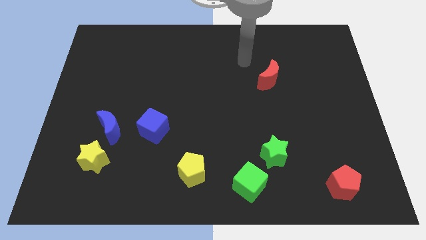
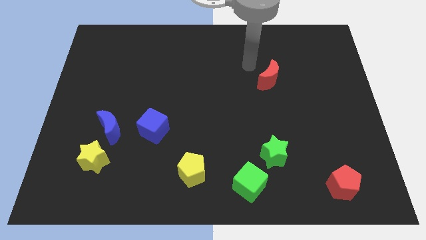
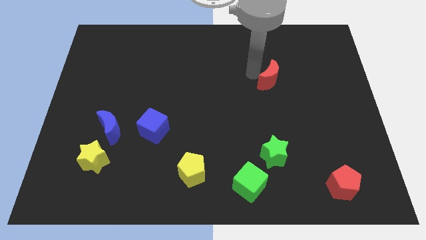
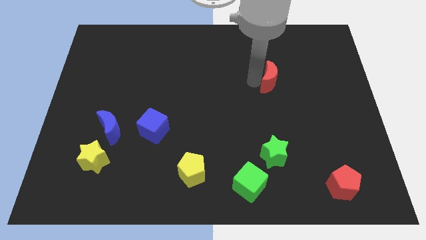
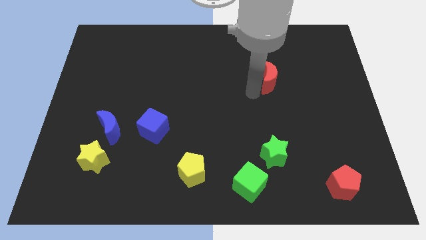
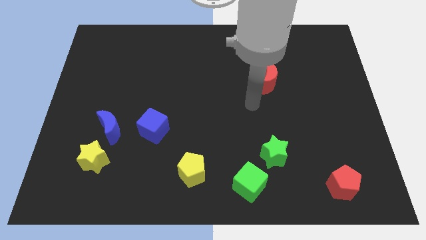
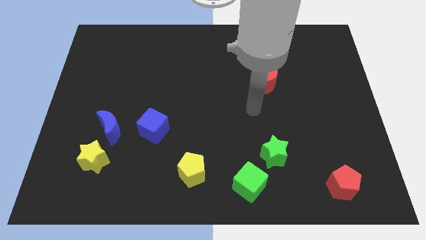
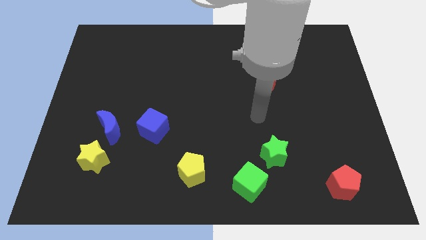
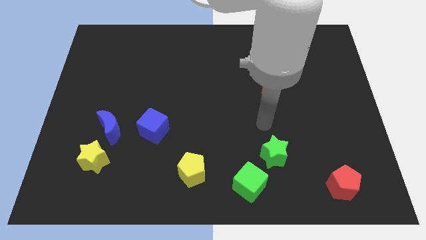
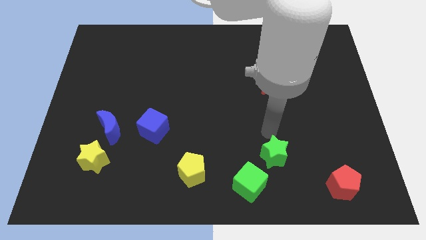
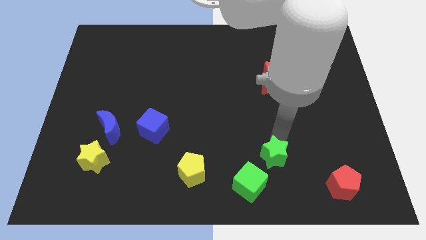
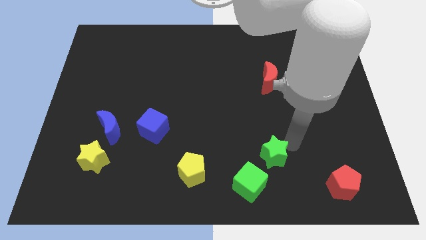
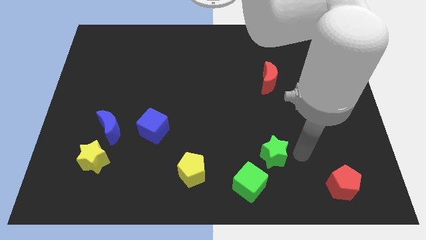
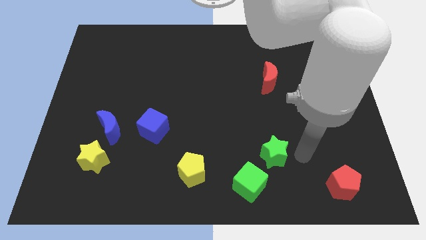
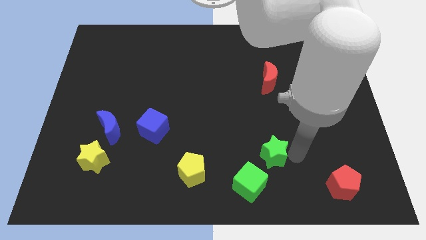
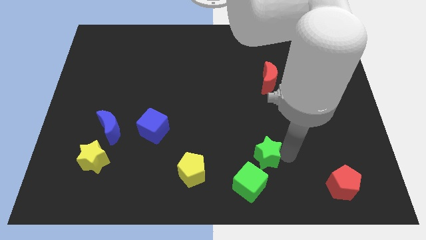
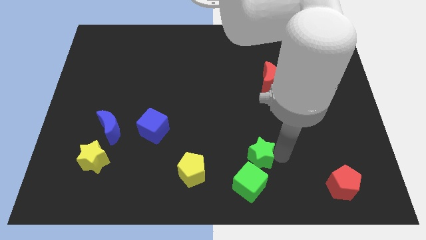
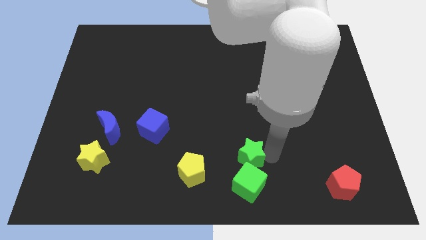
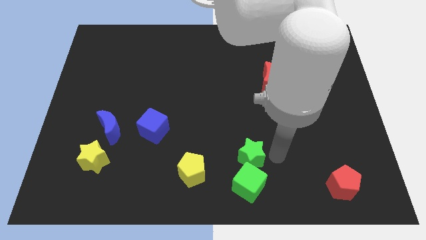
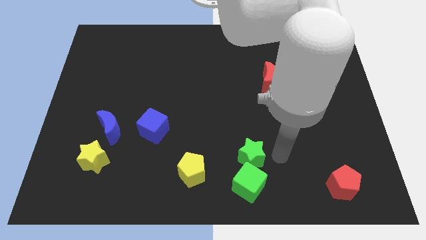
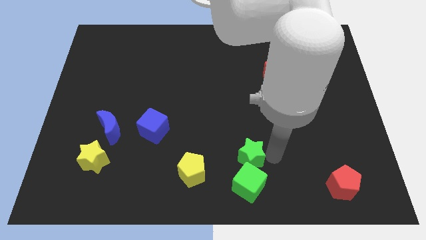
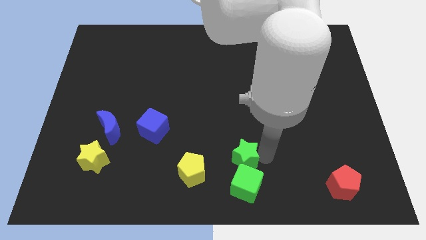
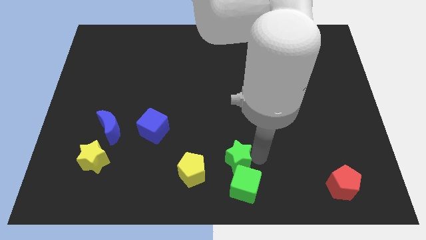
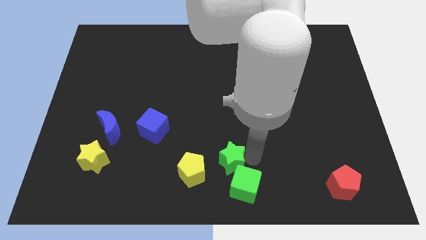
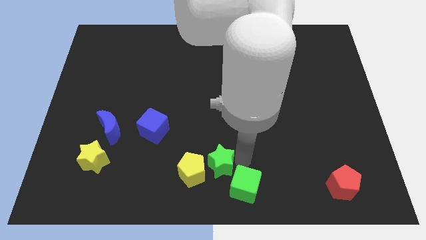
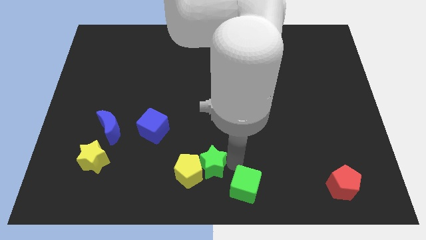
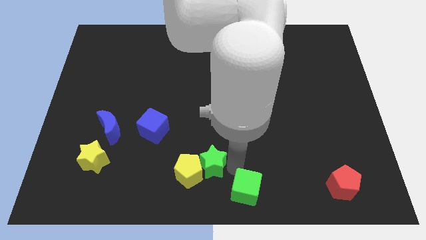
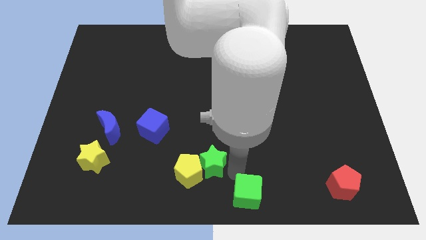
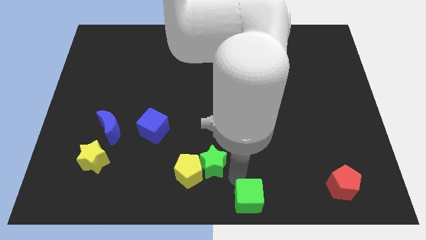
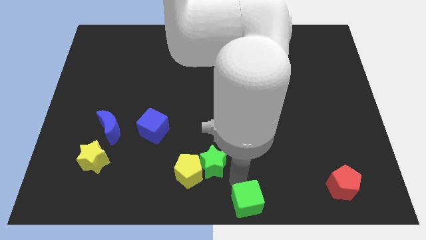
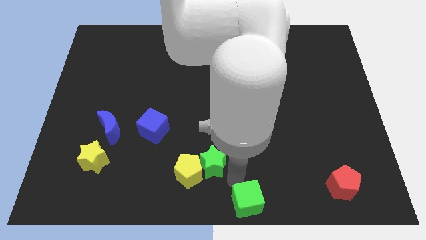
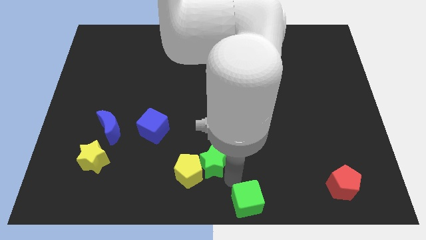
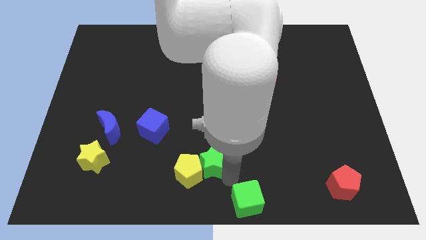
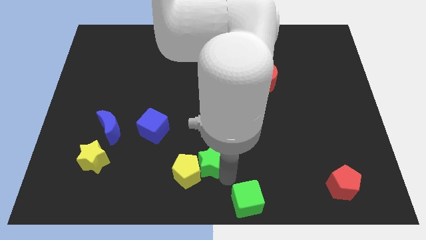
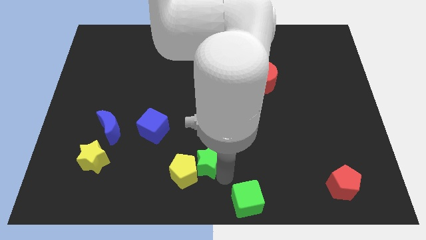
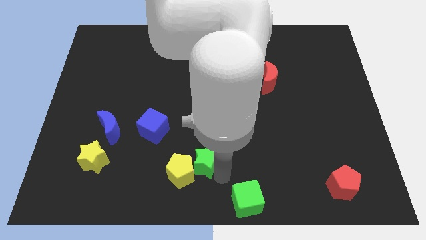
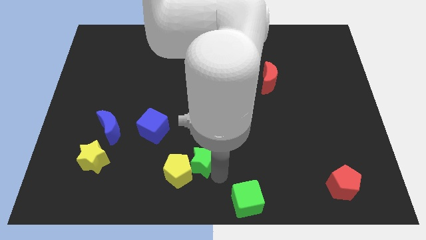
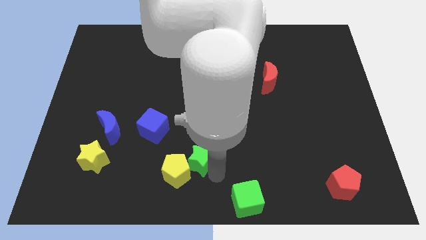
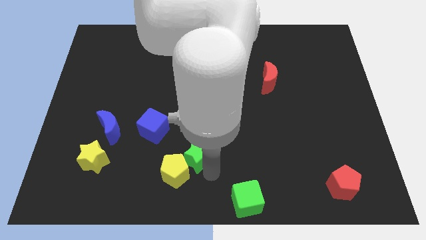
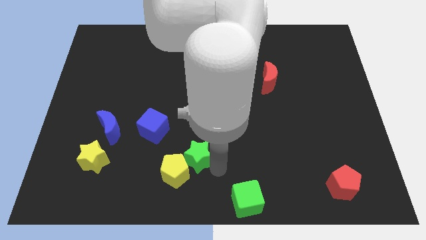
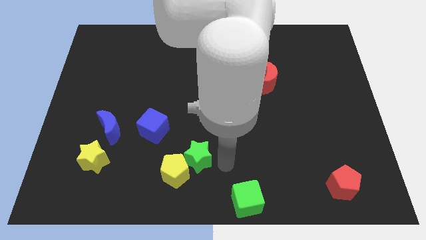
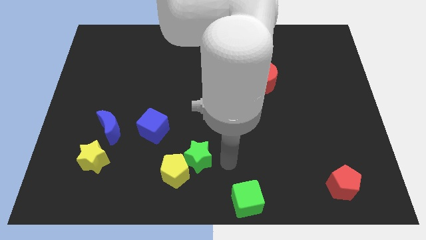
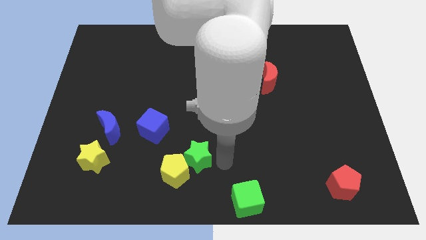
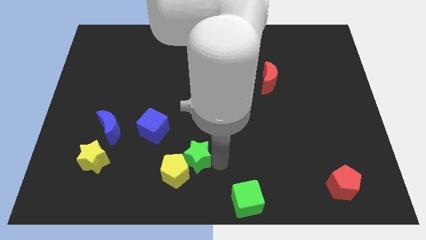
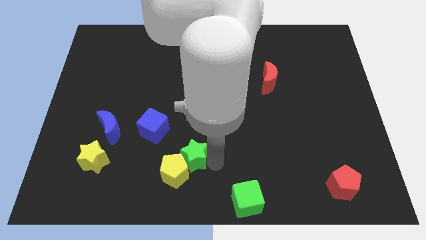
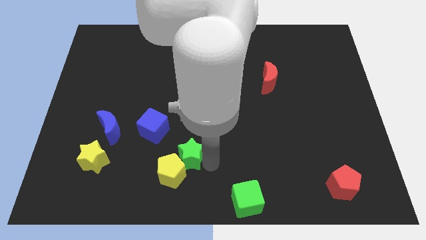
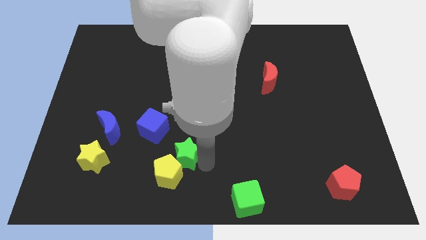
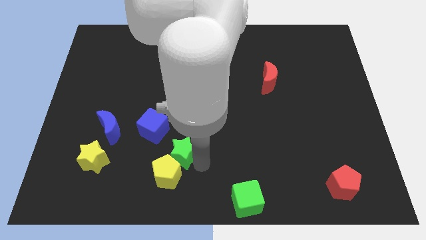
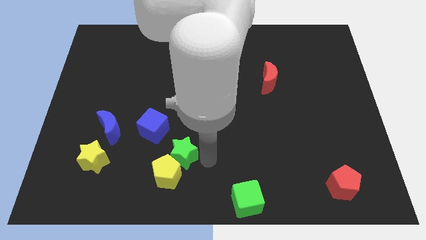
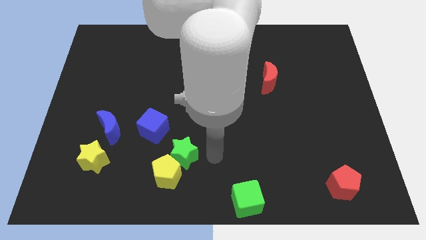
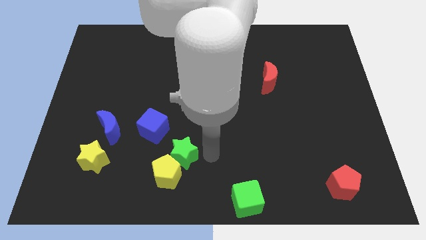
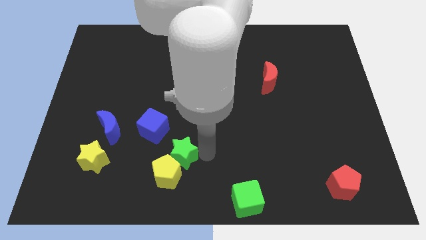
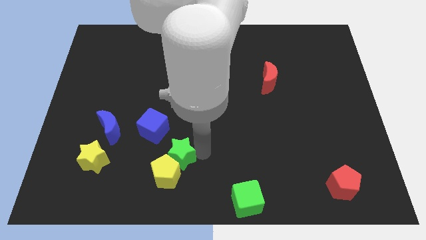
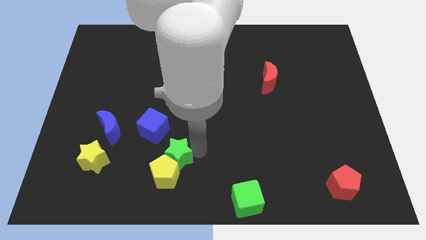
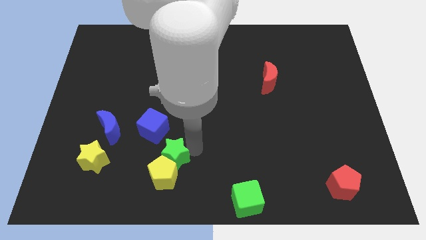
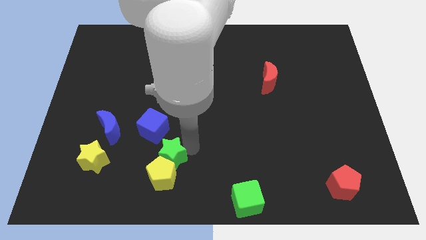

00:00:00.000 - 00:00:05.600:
slide the green star diagonally up and to the left of the yellow pentagon

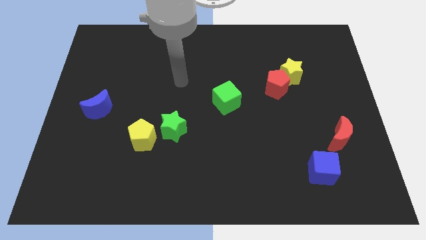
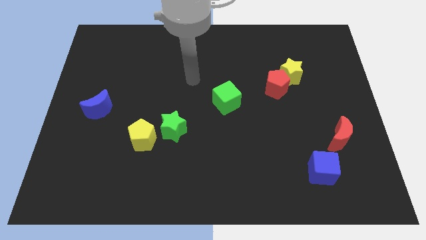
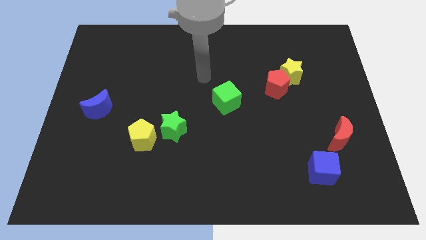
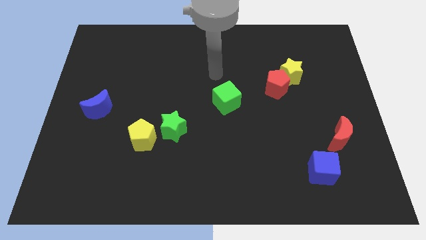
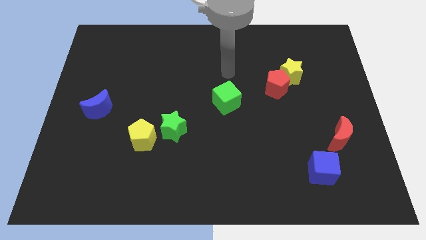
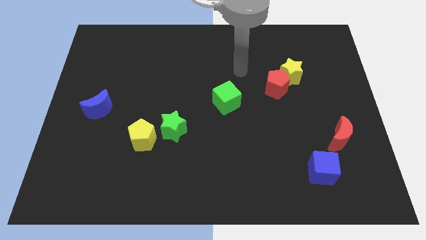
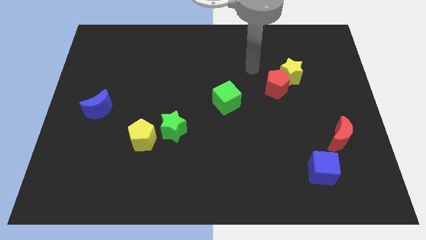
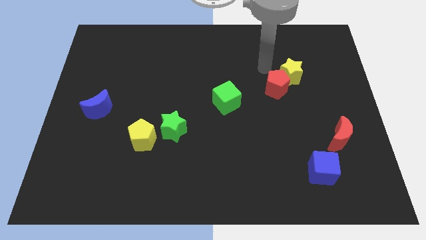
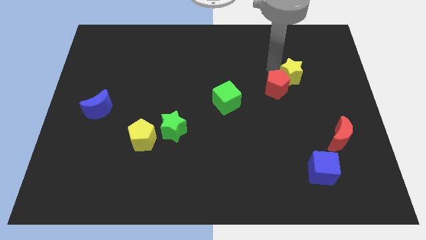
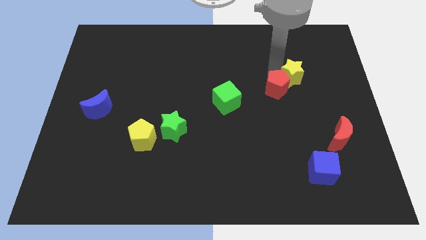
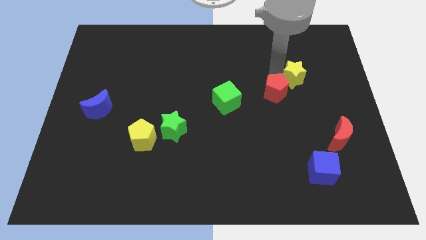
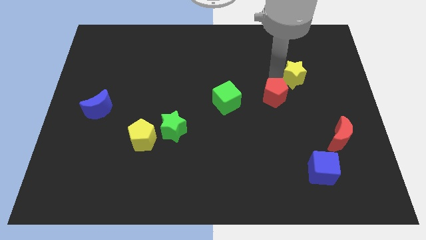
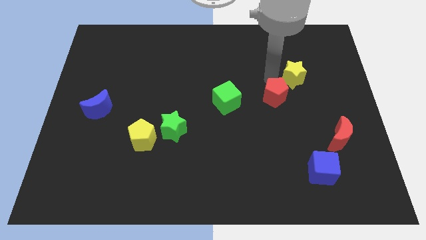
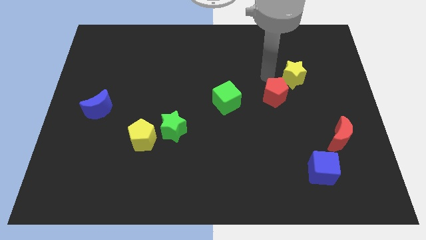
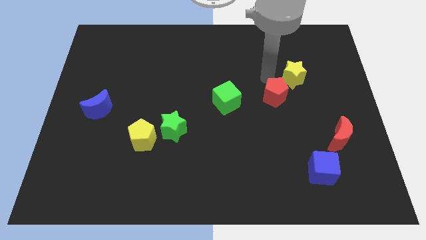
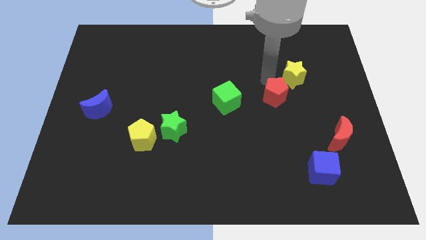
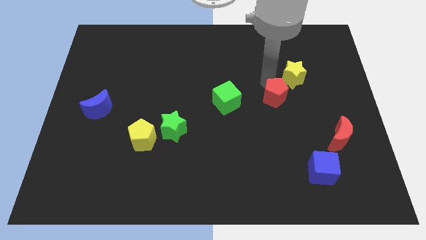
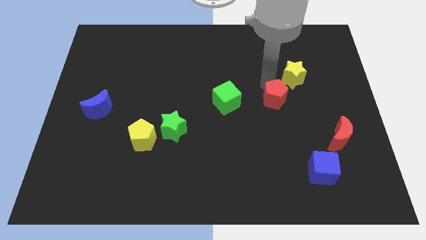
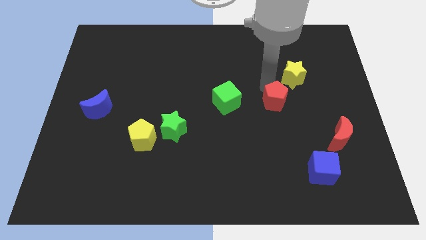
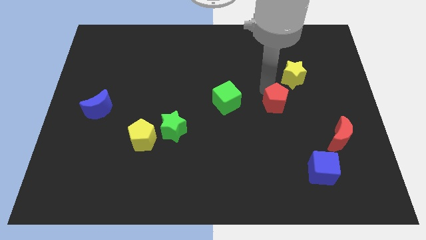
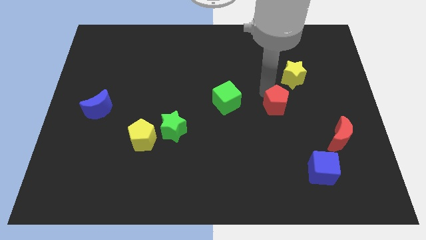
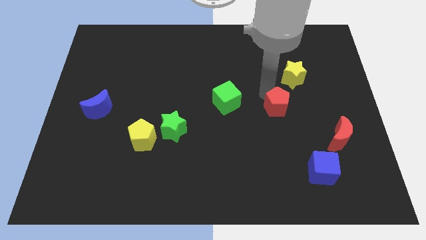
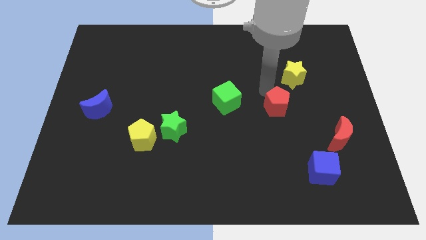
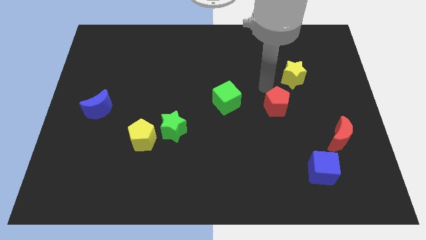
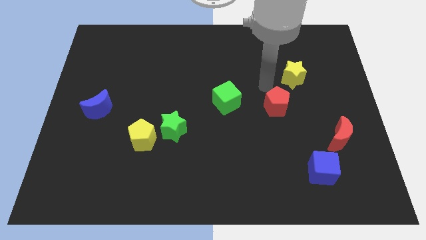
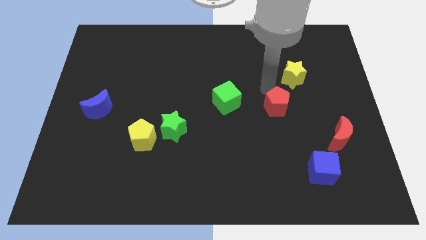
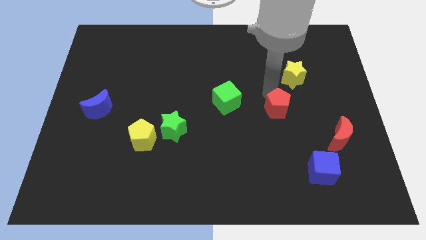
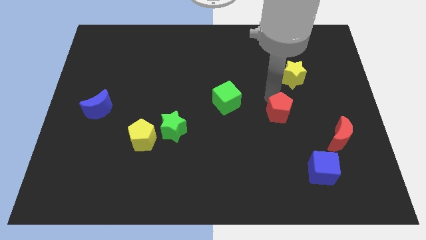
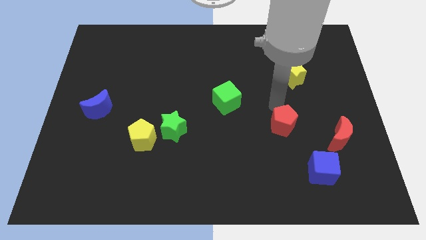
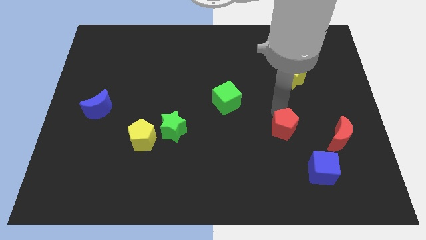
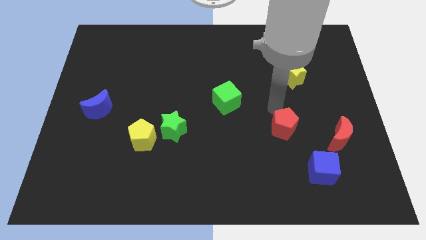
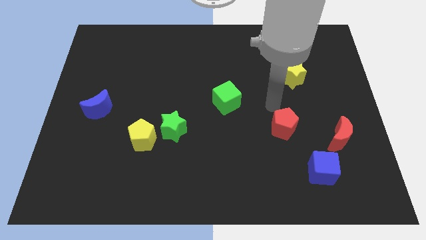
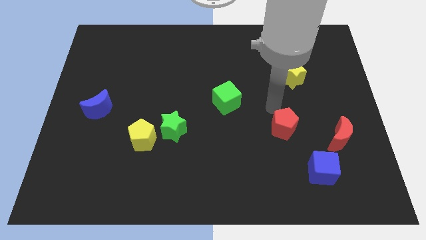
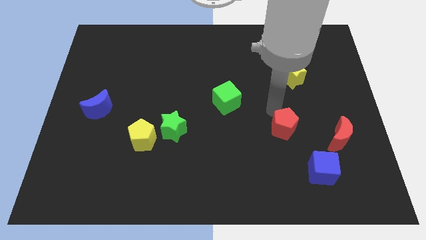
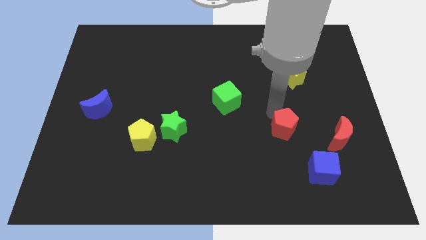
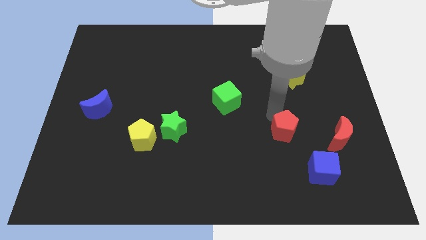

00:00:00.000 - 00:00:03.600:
move the red pentagon diagonally up and to the left of the blue cube
